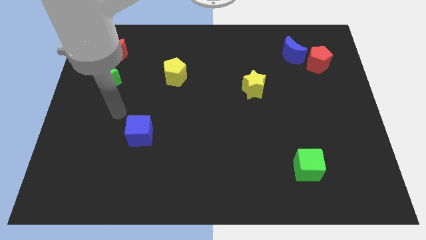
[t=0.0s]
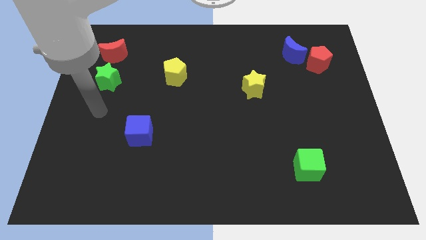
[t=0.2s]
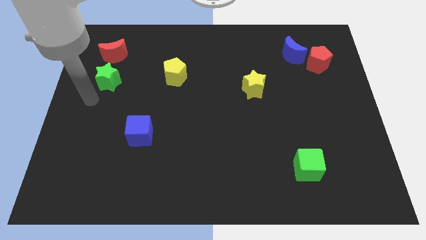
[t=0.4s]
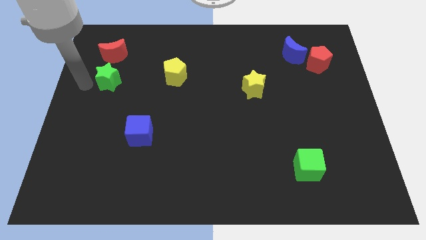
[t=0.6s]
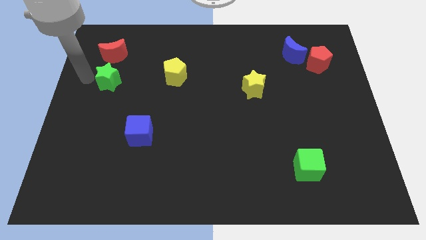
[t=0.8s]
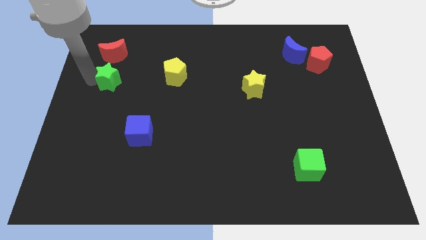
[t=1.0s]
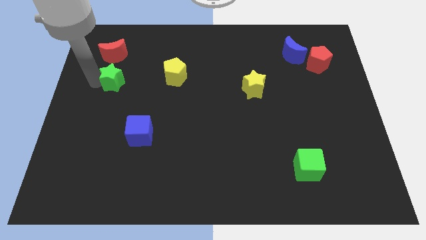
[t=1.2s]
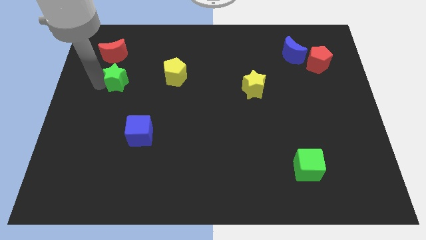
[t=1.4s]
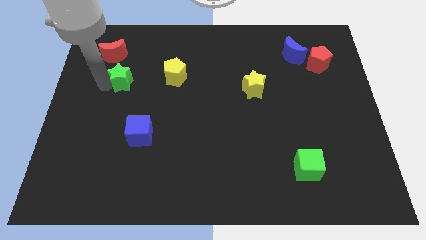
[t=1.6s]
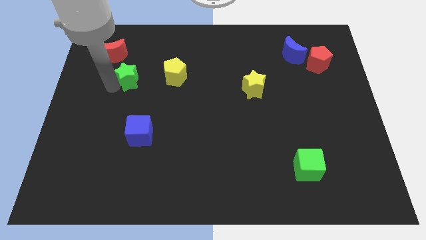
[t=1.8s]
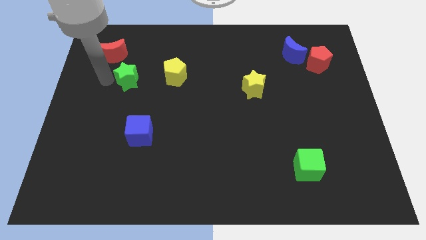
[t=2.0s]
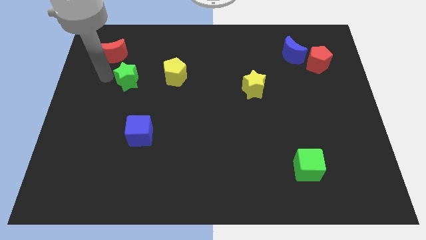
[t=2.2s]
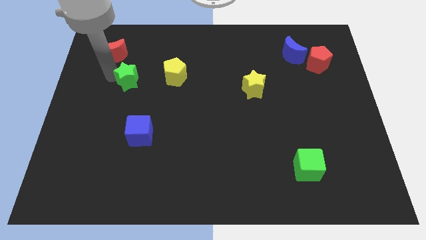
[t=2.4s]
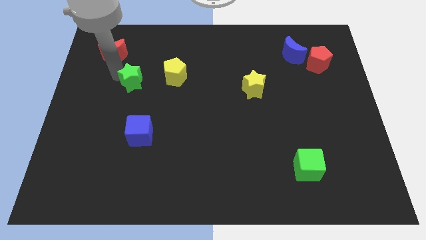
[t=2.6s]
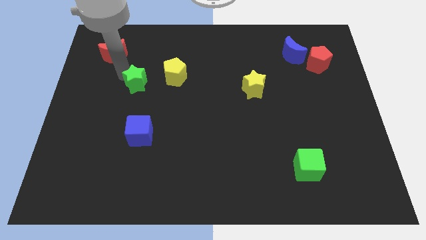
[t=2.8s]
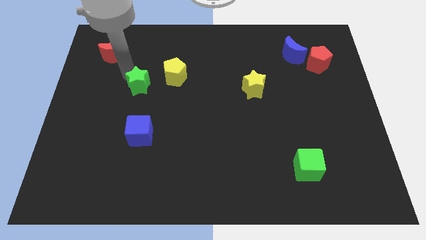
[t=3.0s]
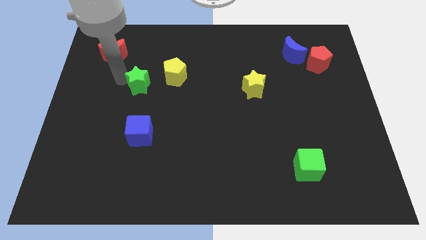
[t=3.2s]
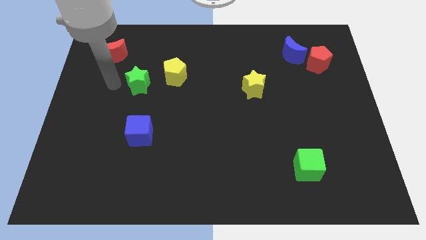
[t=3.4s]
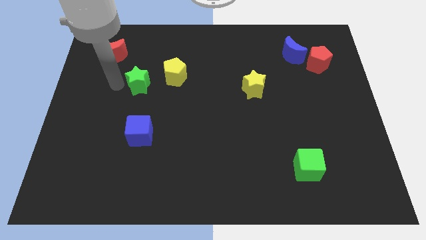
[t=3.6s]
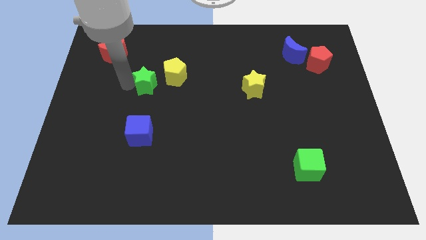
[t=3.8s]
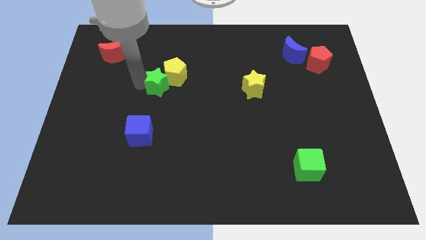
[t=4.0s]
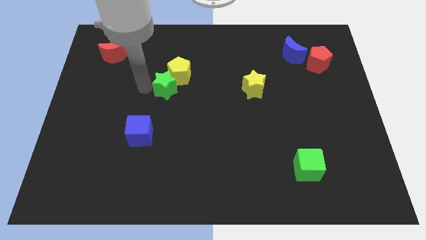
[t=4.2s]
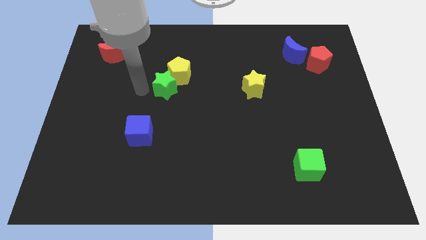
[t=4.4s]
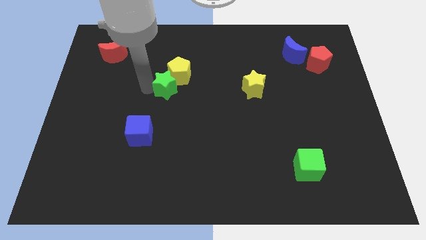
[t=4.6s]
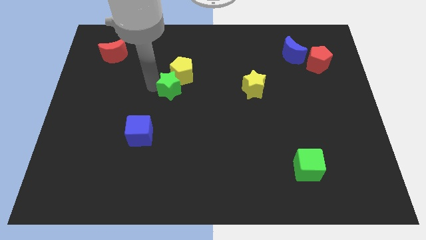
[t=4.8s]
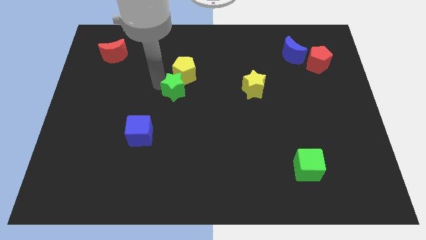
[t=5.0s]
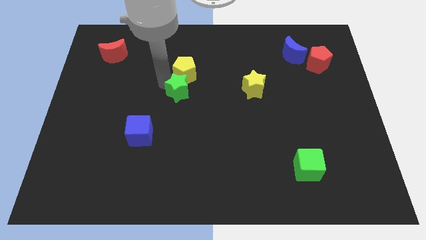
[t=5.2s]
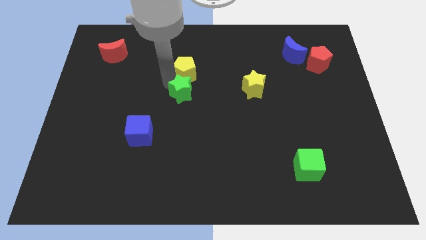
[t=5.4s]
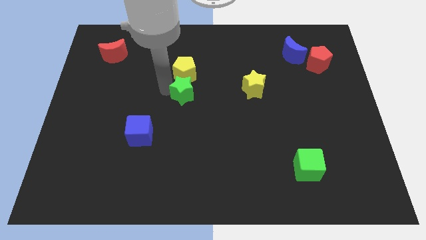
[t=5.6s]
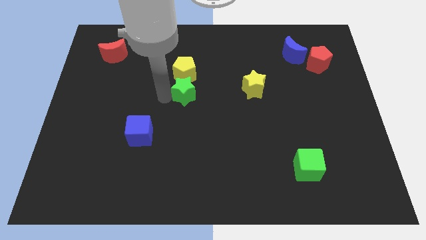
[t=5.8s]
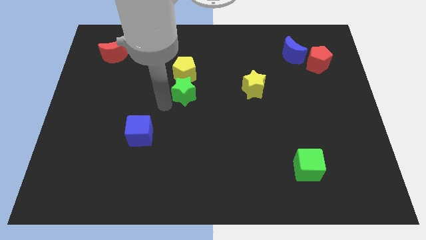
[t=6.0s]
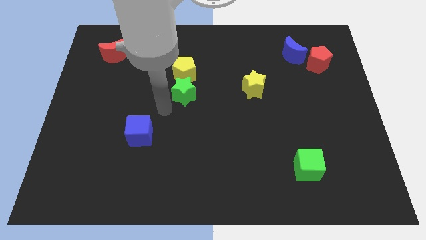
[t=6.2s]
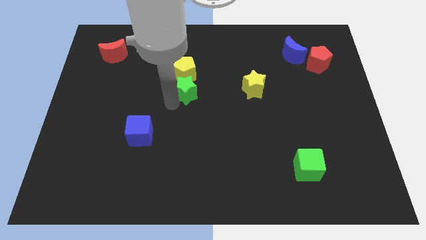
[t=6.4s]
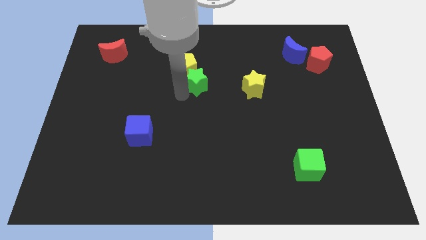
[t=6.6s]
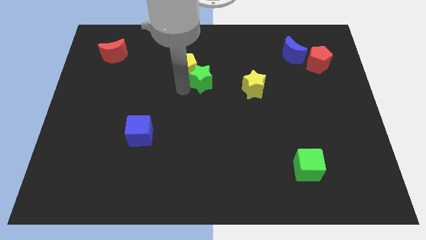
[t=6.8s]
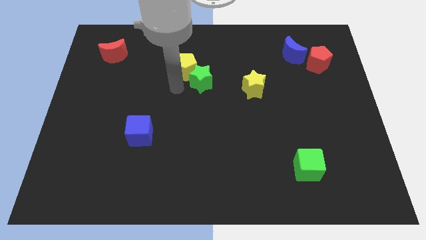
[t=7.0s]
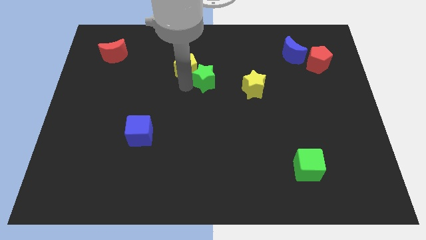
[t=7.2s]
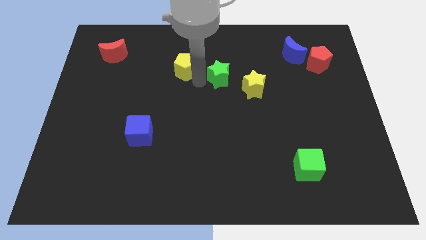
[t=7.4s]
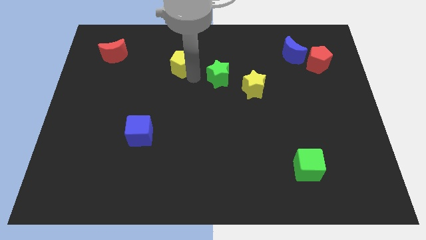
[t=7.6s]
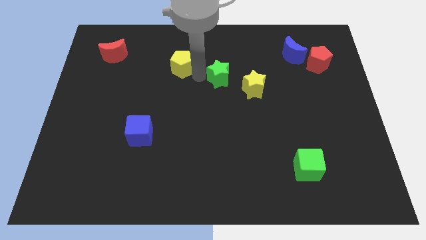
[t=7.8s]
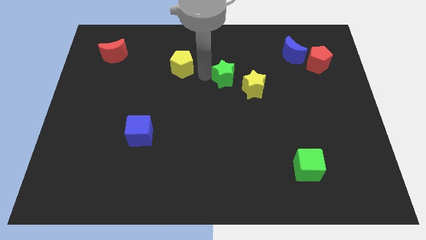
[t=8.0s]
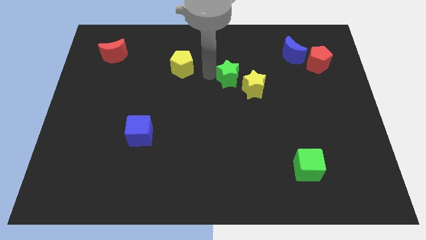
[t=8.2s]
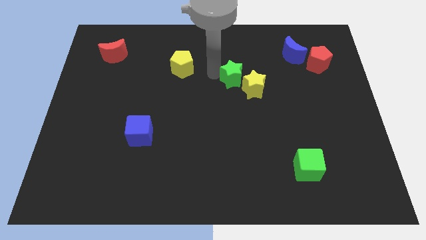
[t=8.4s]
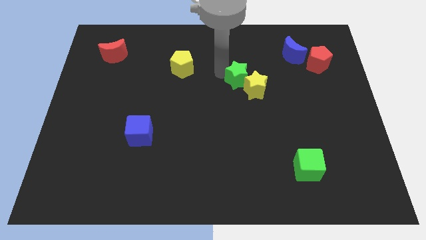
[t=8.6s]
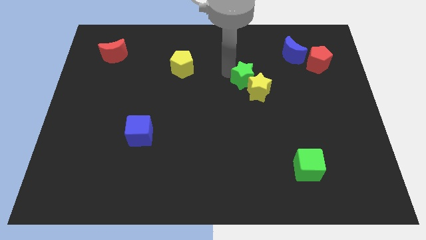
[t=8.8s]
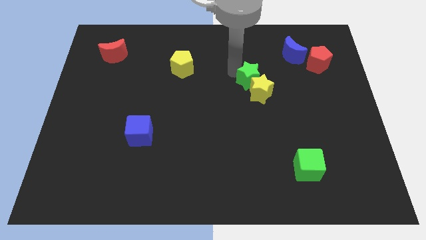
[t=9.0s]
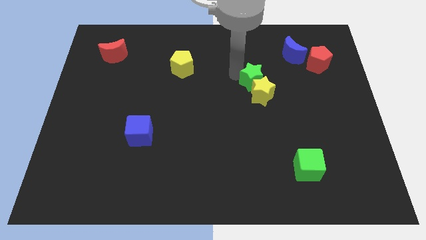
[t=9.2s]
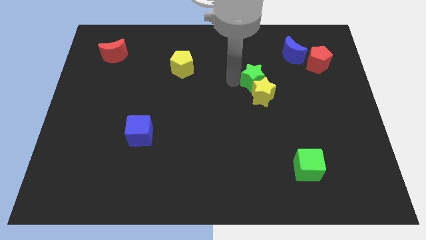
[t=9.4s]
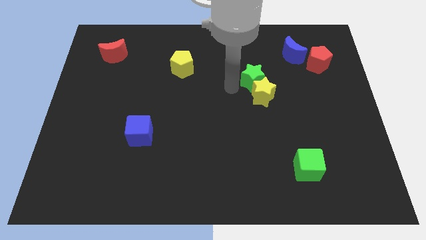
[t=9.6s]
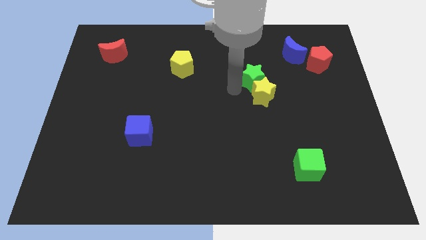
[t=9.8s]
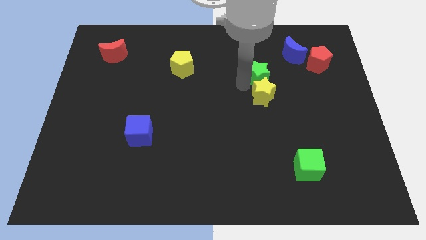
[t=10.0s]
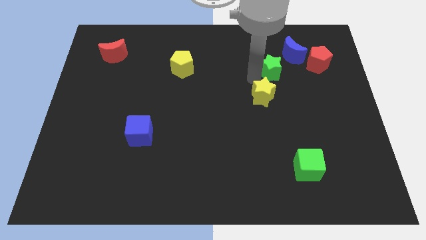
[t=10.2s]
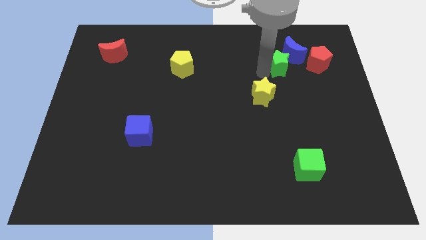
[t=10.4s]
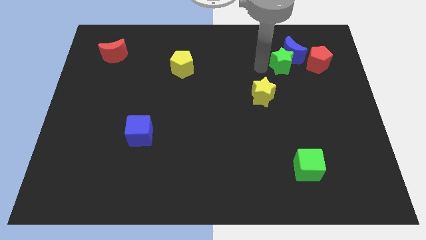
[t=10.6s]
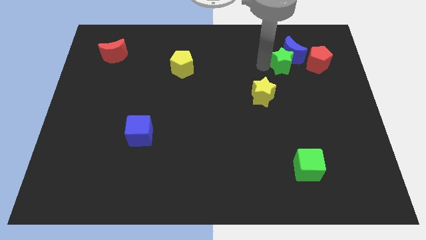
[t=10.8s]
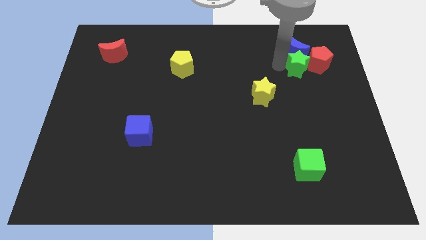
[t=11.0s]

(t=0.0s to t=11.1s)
push the green star next to the red pentagon

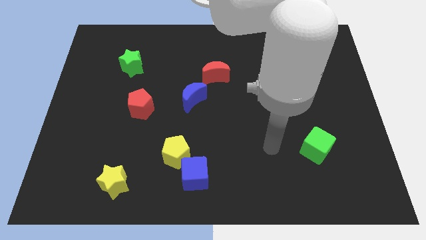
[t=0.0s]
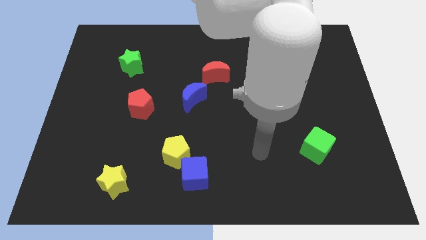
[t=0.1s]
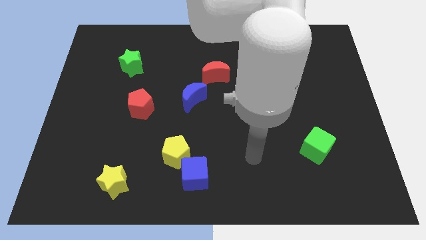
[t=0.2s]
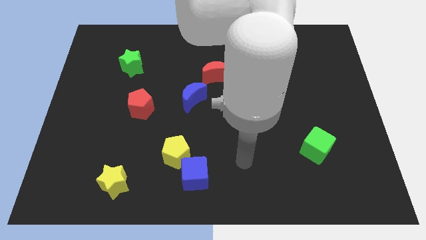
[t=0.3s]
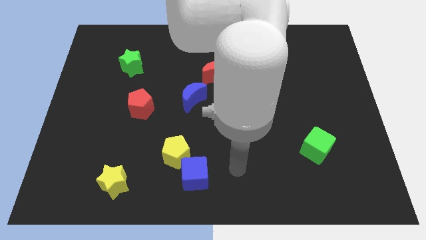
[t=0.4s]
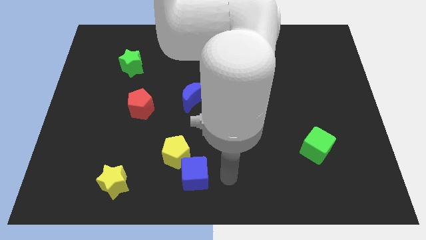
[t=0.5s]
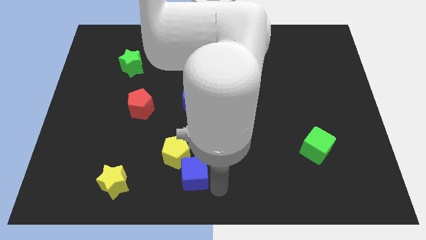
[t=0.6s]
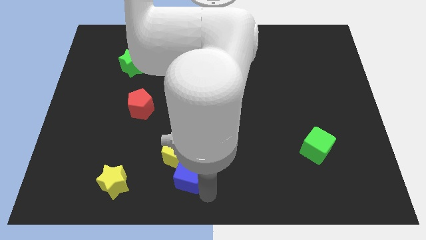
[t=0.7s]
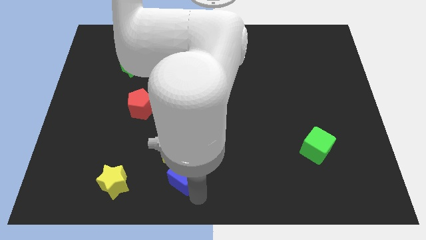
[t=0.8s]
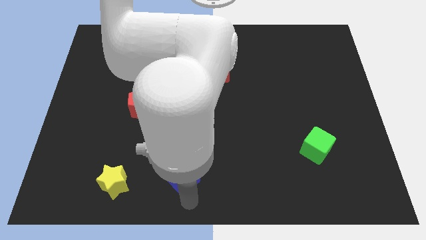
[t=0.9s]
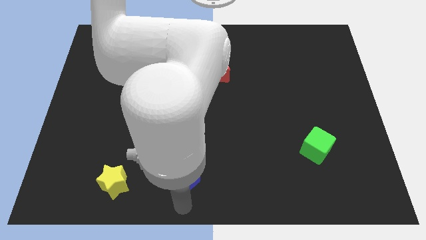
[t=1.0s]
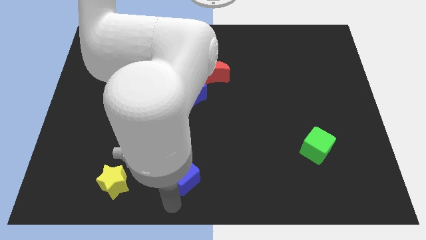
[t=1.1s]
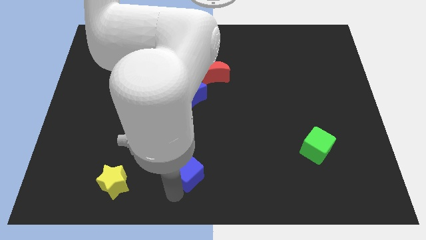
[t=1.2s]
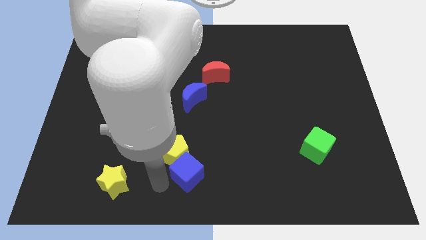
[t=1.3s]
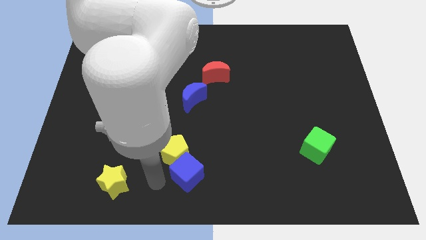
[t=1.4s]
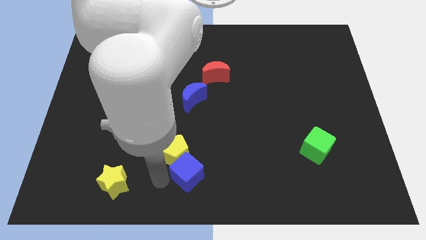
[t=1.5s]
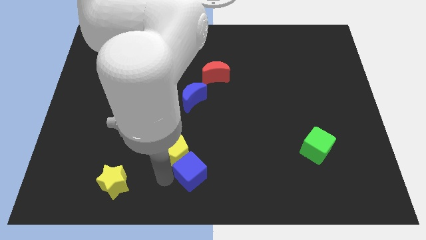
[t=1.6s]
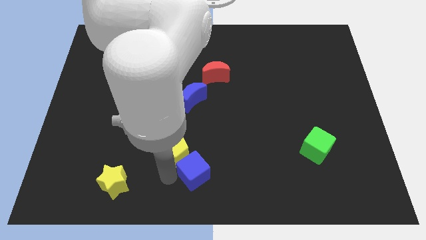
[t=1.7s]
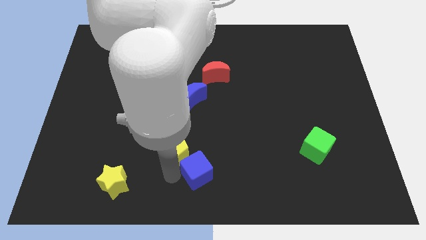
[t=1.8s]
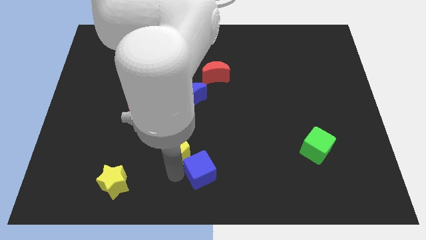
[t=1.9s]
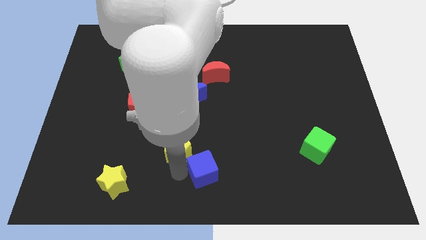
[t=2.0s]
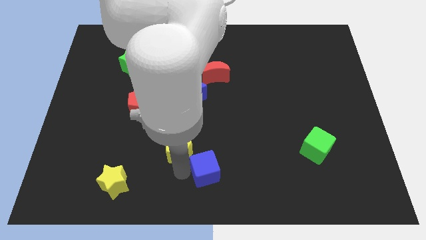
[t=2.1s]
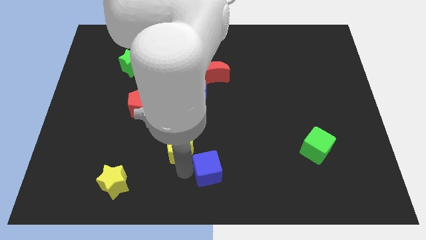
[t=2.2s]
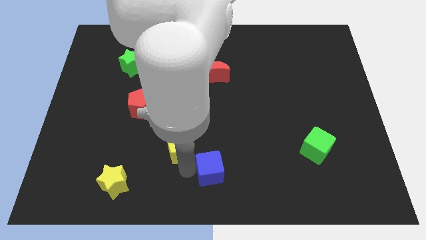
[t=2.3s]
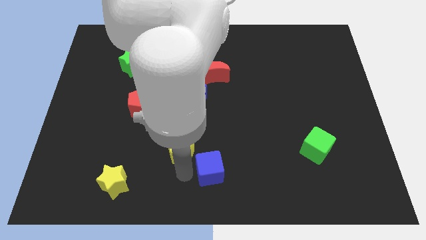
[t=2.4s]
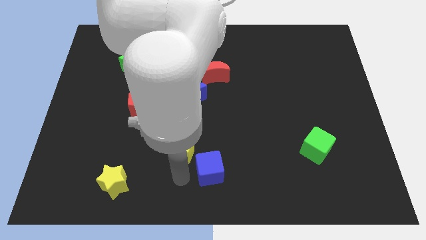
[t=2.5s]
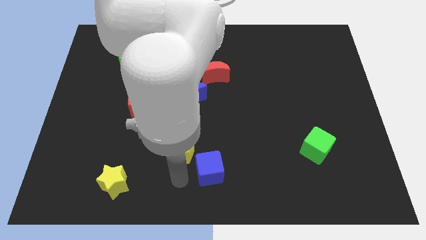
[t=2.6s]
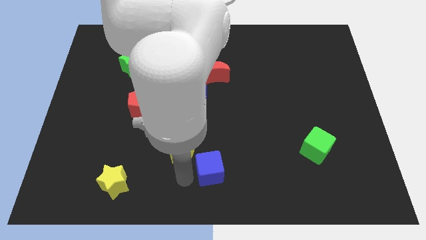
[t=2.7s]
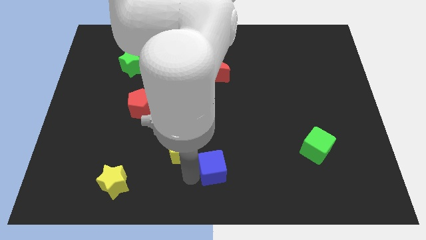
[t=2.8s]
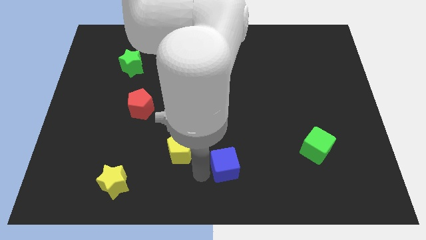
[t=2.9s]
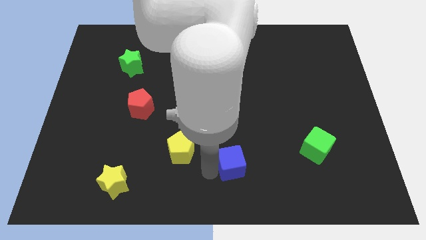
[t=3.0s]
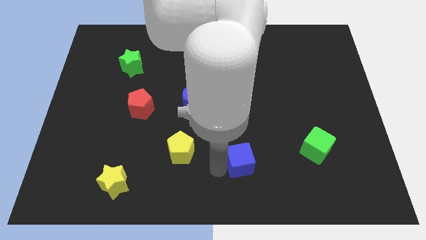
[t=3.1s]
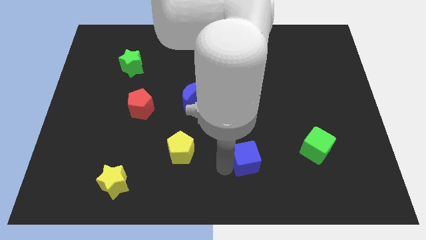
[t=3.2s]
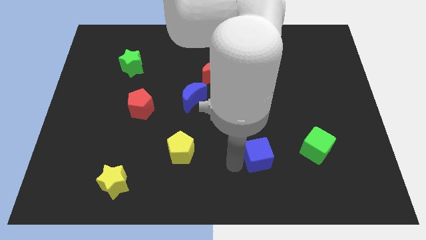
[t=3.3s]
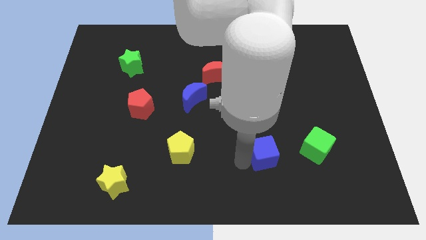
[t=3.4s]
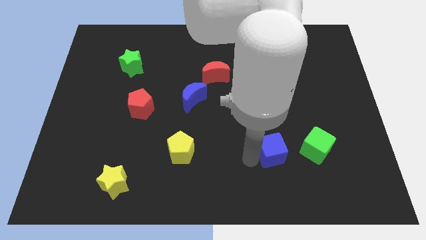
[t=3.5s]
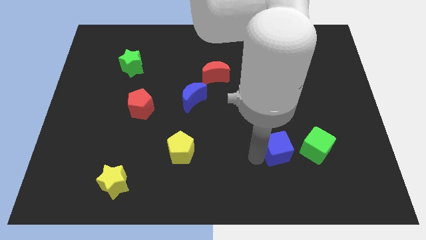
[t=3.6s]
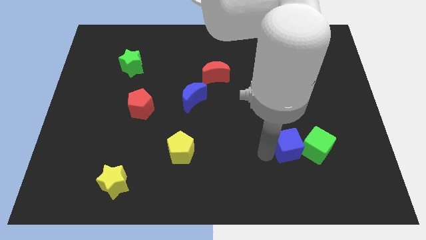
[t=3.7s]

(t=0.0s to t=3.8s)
slide the blue cube towards the green cube
